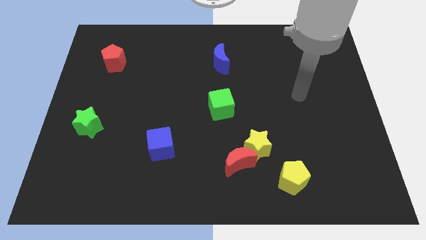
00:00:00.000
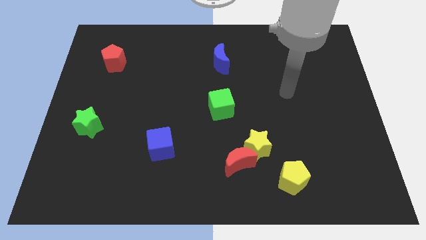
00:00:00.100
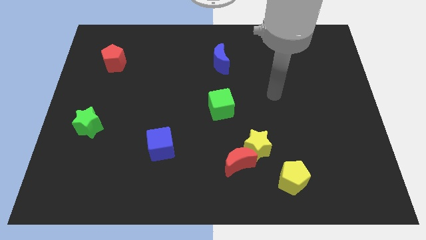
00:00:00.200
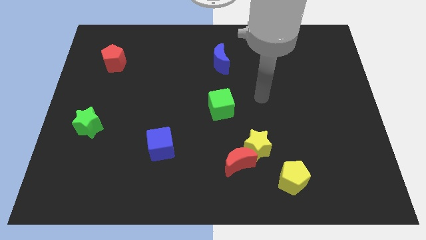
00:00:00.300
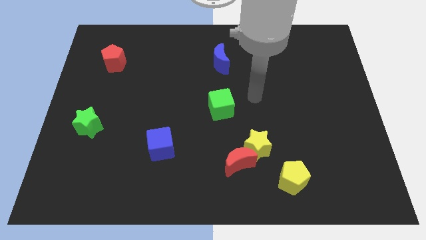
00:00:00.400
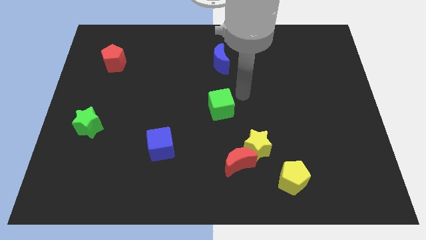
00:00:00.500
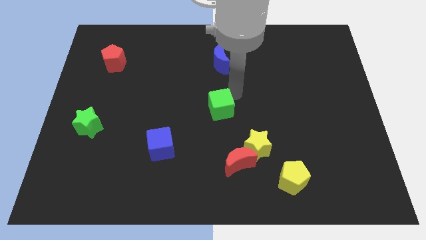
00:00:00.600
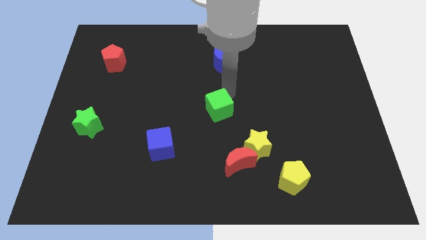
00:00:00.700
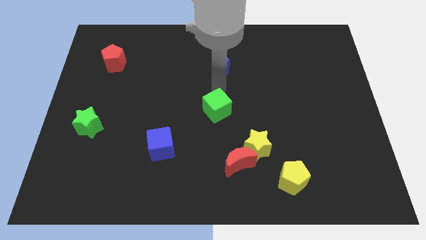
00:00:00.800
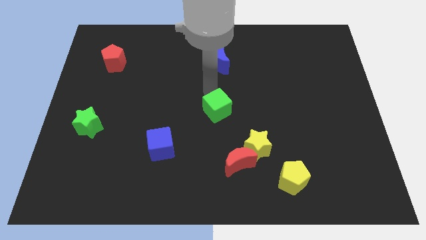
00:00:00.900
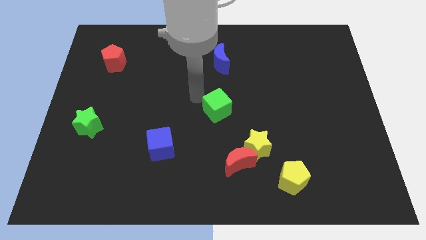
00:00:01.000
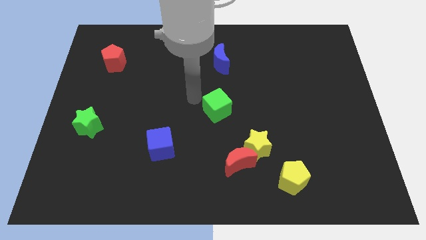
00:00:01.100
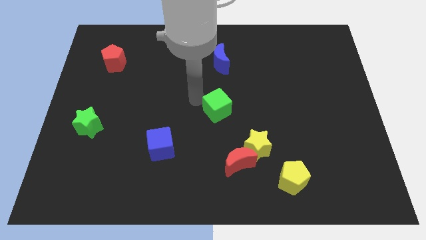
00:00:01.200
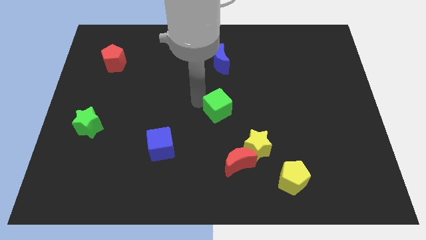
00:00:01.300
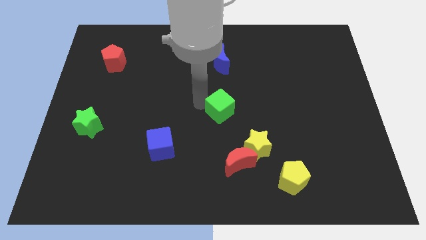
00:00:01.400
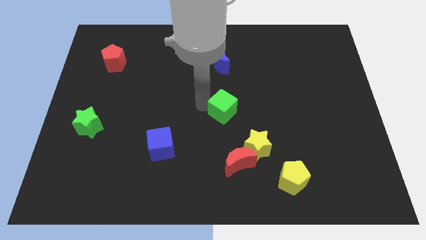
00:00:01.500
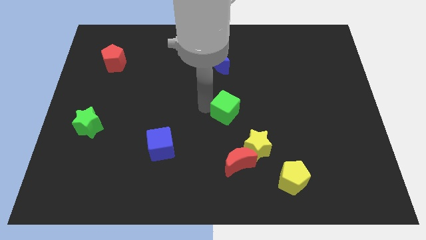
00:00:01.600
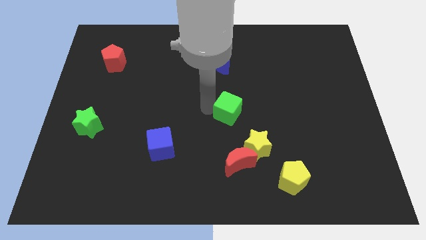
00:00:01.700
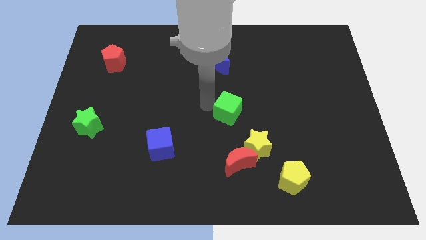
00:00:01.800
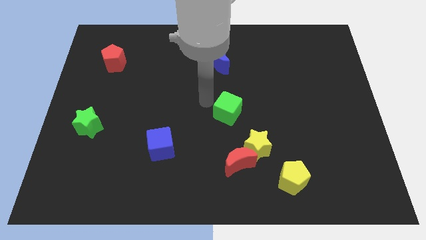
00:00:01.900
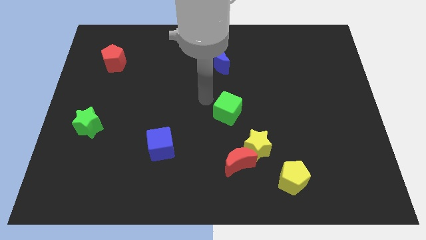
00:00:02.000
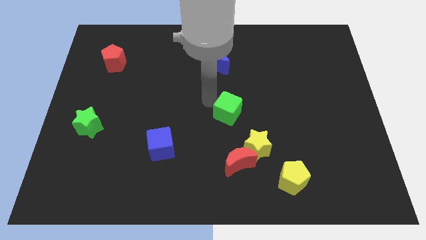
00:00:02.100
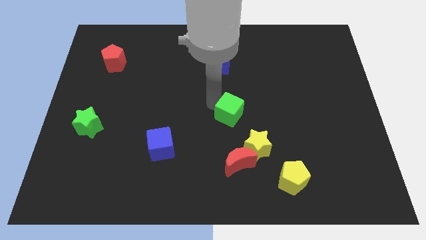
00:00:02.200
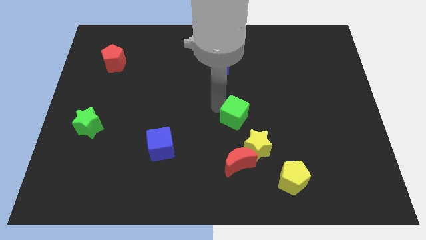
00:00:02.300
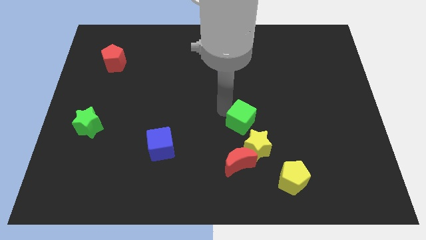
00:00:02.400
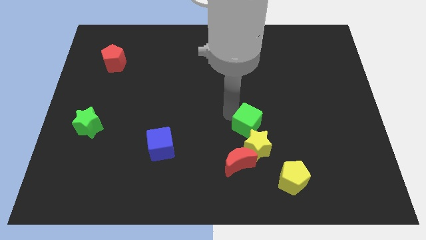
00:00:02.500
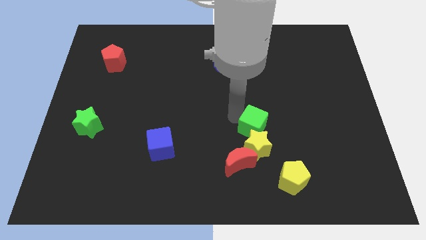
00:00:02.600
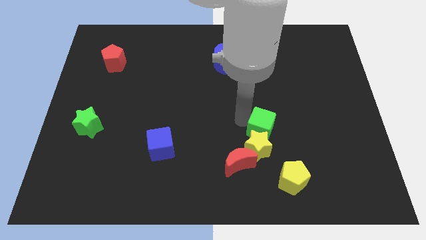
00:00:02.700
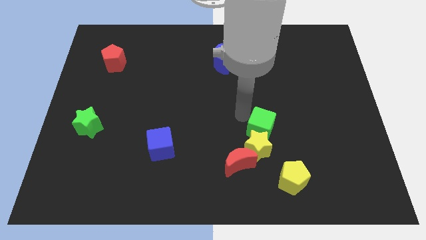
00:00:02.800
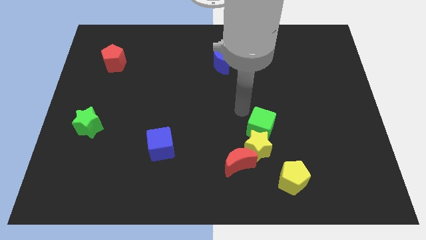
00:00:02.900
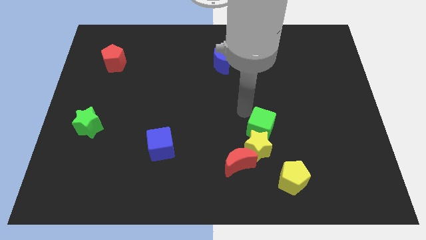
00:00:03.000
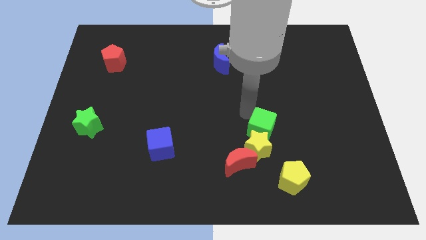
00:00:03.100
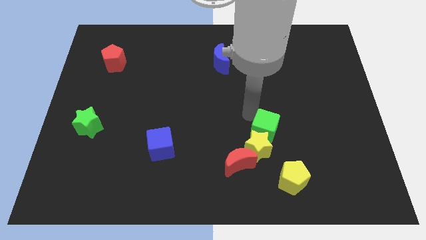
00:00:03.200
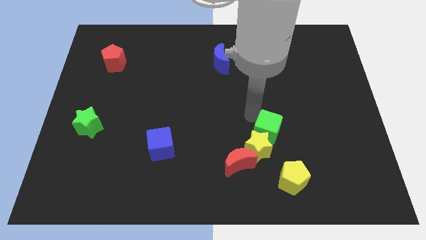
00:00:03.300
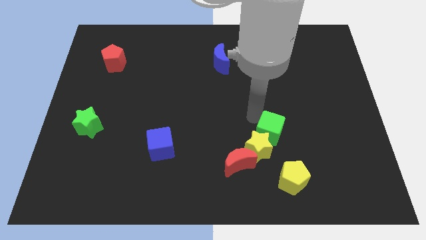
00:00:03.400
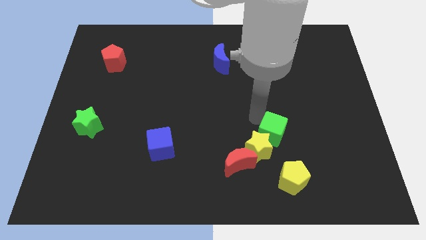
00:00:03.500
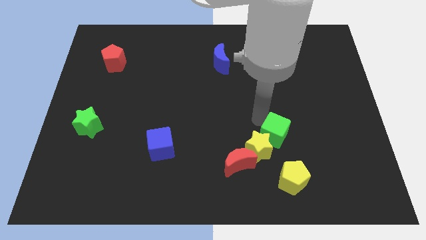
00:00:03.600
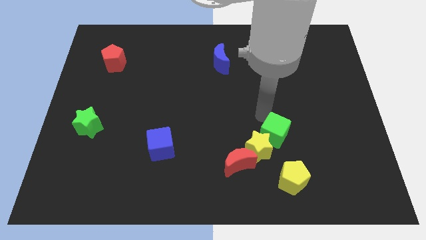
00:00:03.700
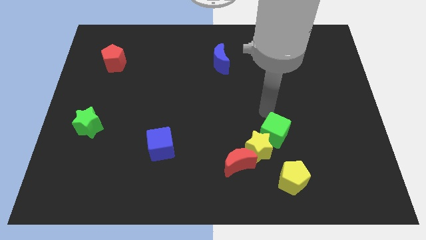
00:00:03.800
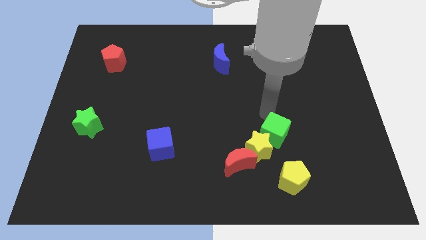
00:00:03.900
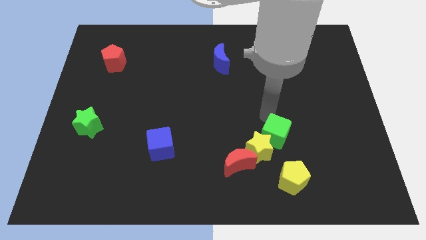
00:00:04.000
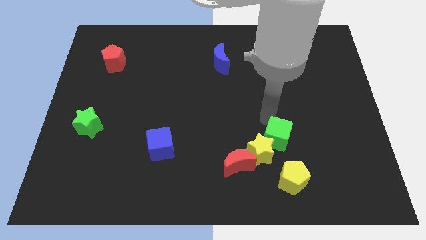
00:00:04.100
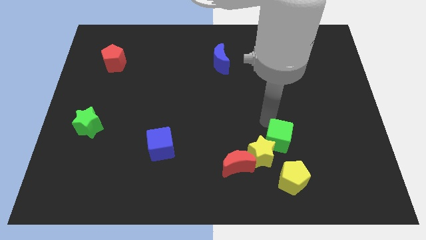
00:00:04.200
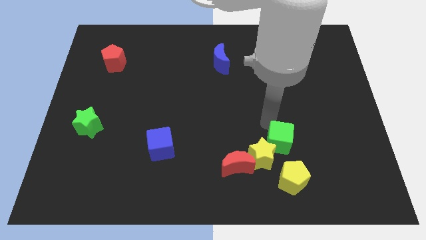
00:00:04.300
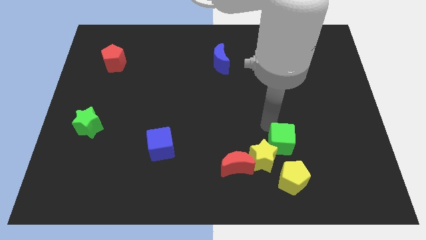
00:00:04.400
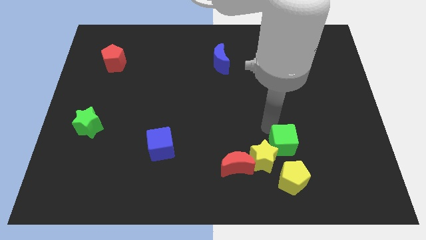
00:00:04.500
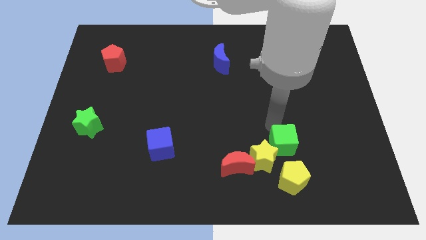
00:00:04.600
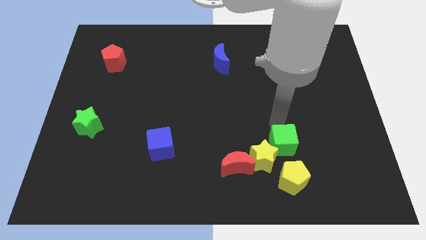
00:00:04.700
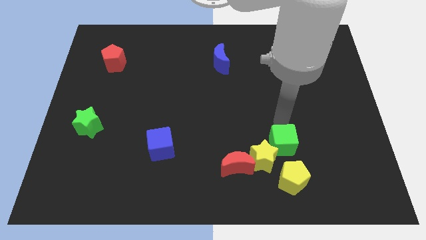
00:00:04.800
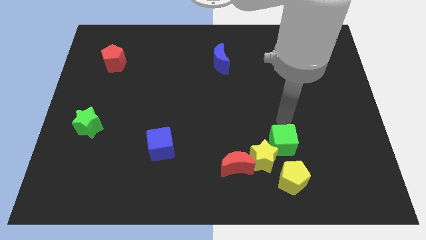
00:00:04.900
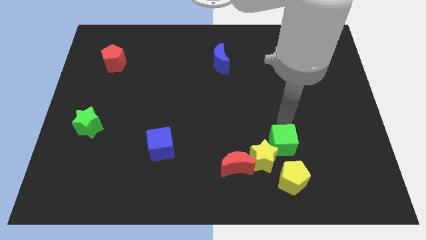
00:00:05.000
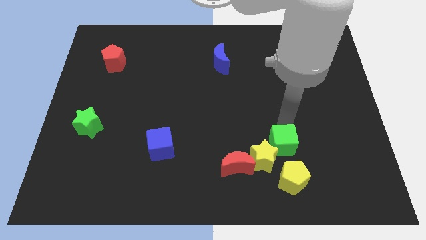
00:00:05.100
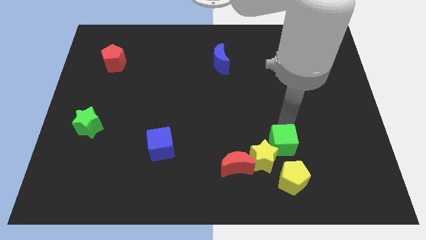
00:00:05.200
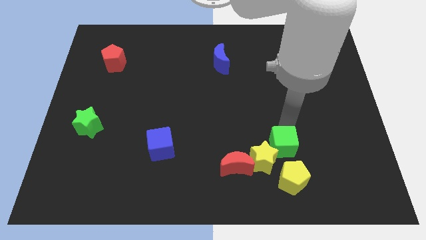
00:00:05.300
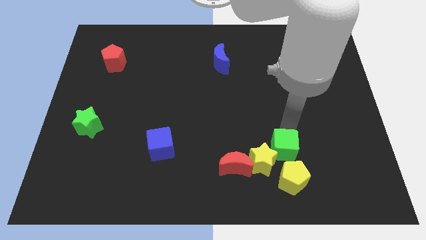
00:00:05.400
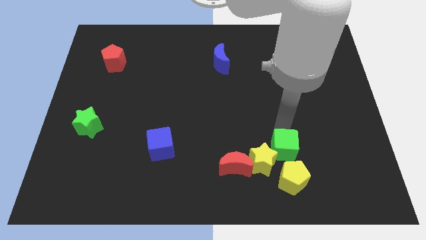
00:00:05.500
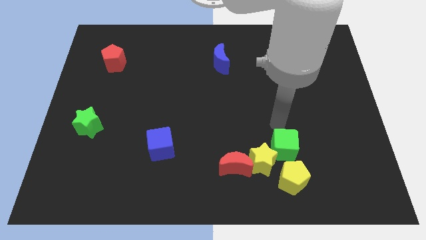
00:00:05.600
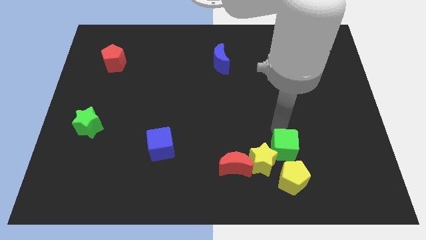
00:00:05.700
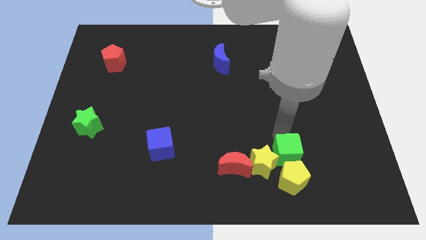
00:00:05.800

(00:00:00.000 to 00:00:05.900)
move the green cube next to the yellow pentagon
